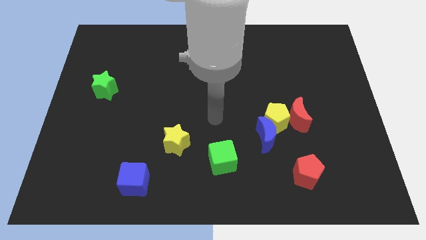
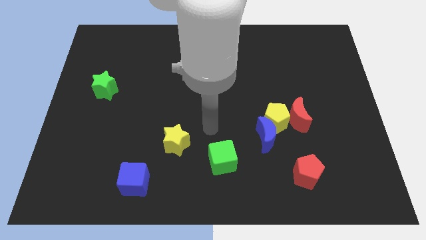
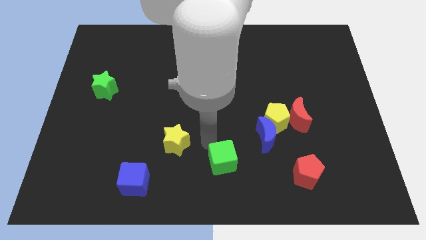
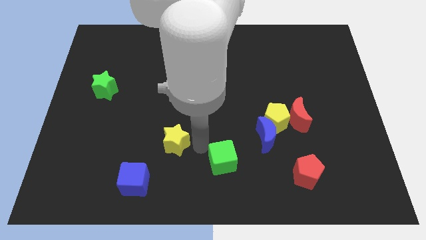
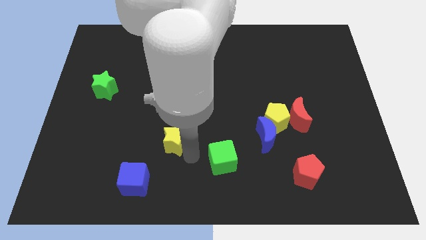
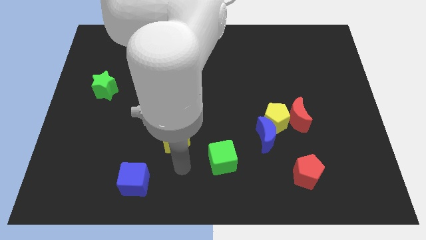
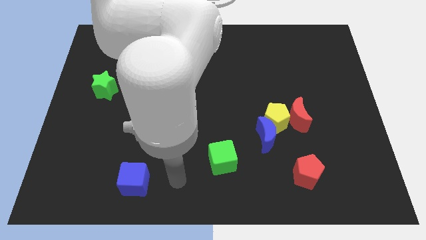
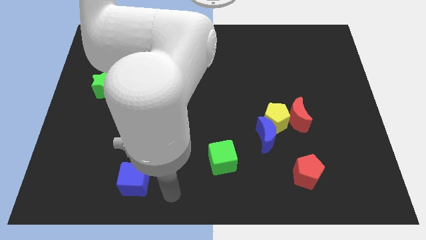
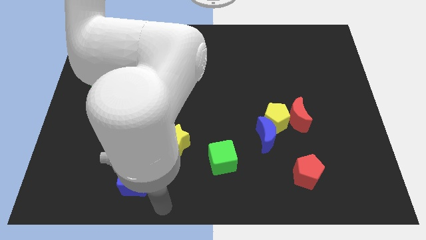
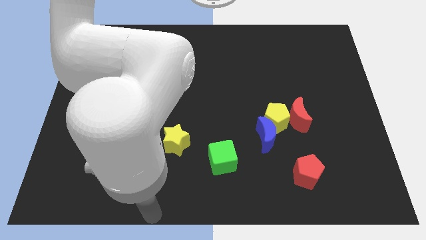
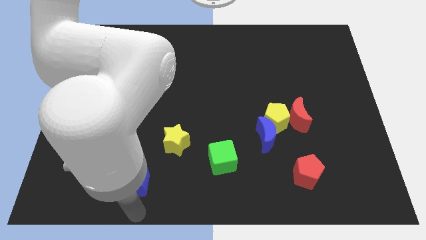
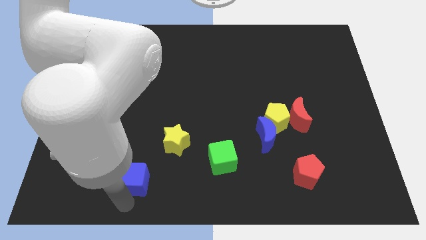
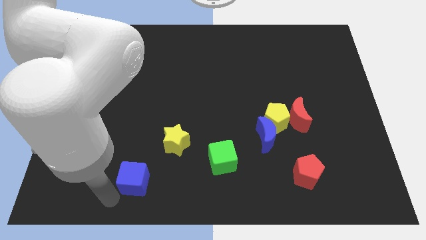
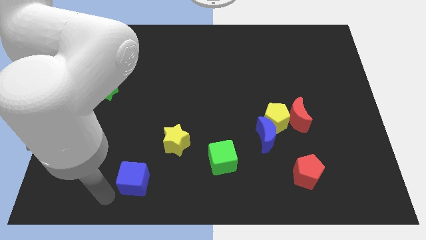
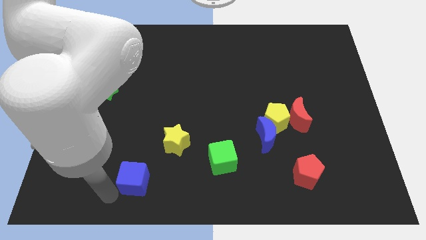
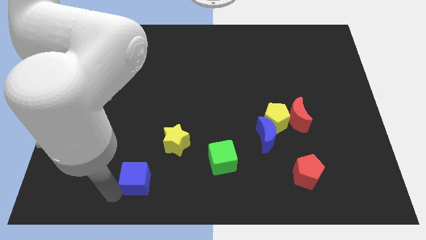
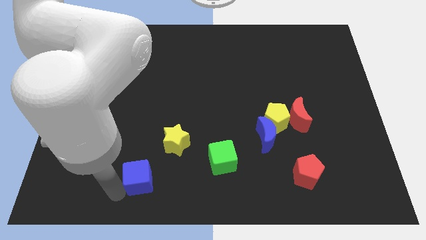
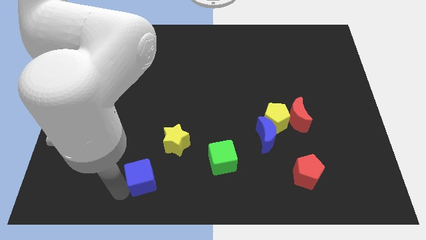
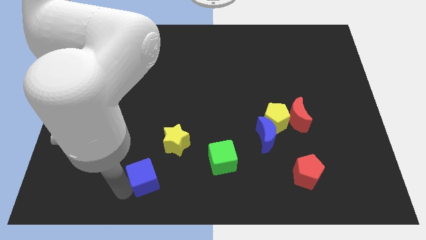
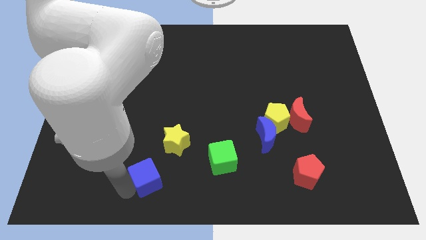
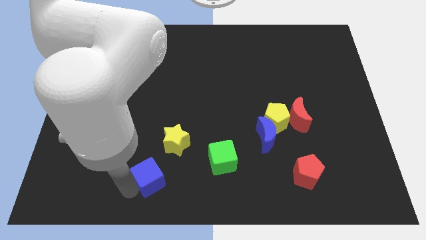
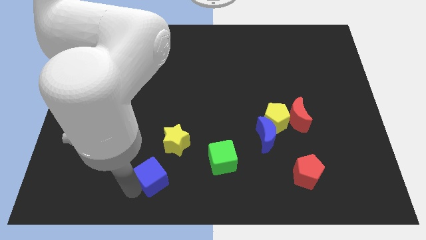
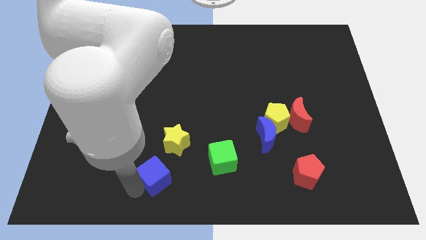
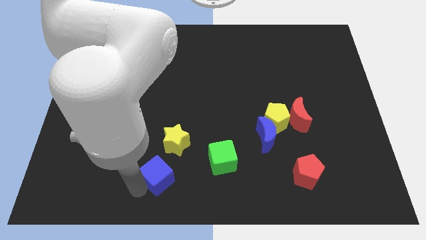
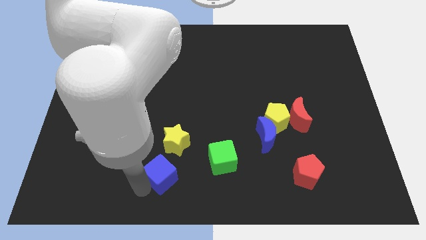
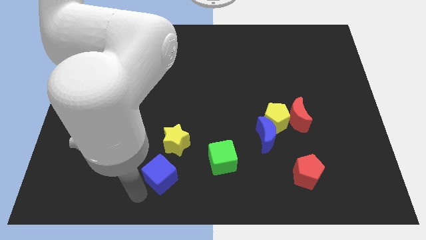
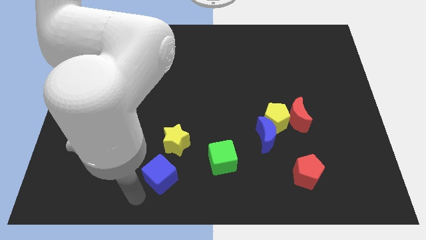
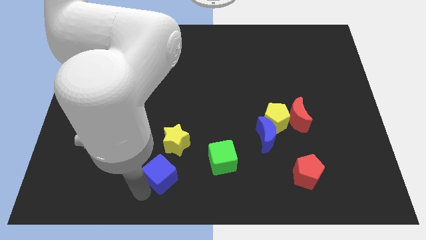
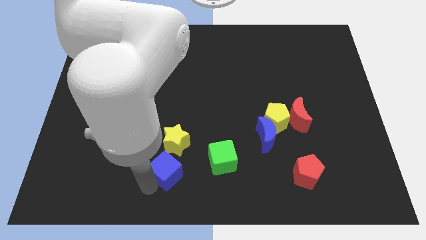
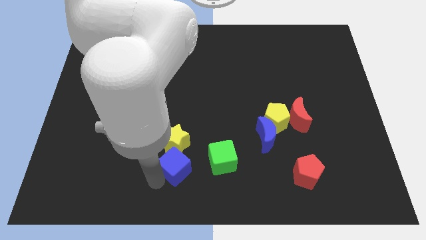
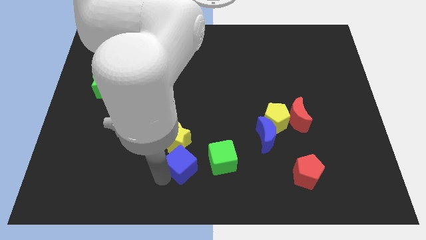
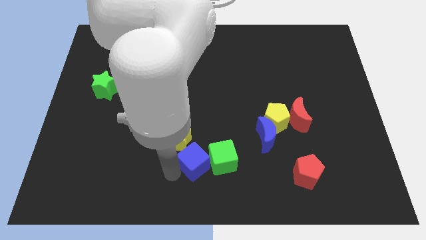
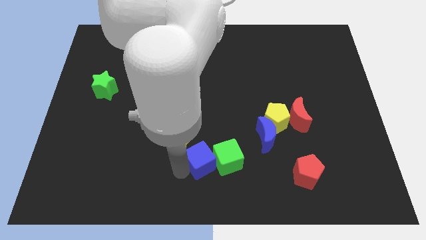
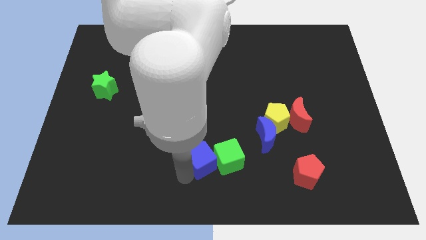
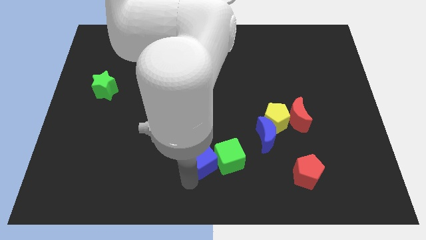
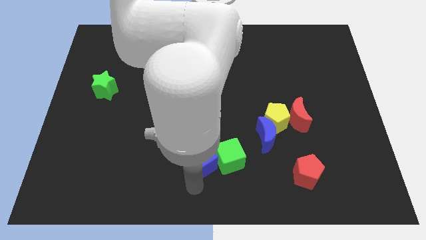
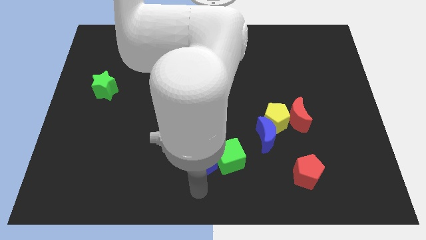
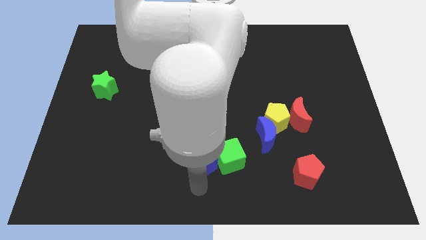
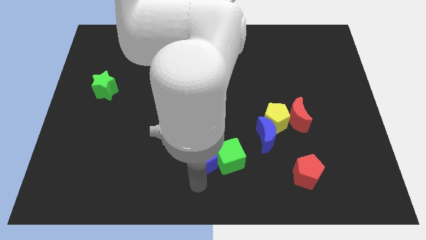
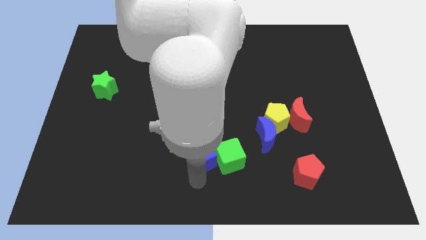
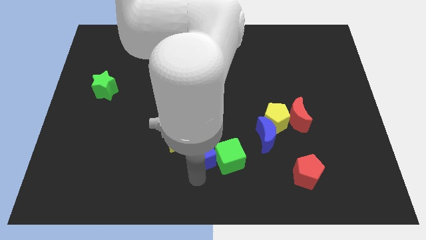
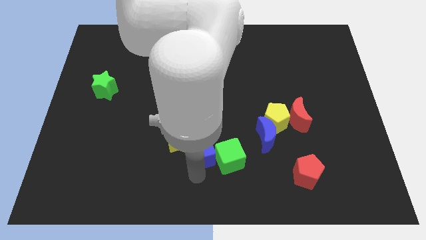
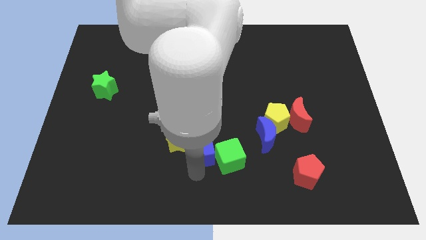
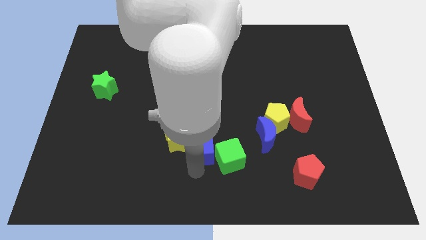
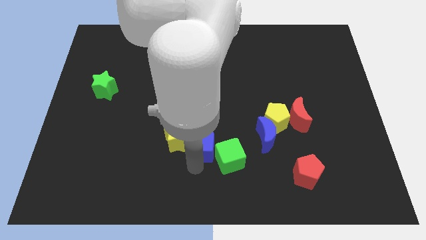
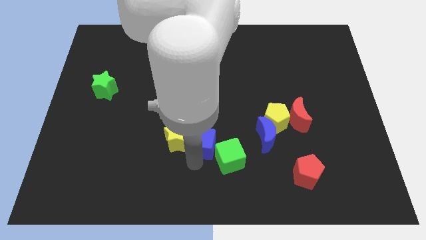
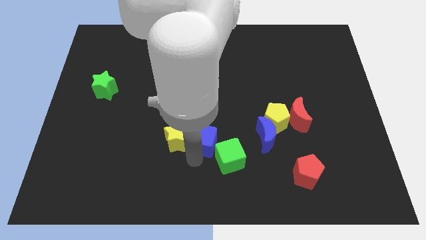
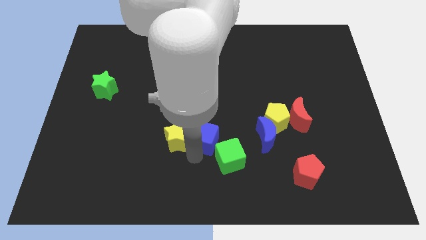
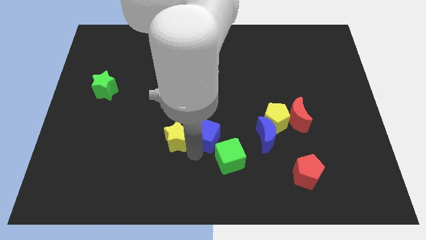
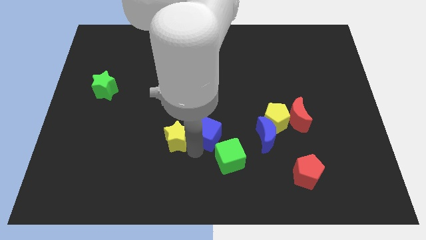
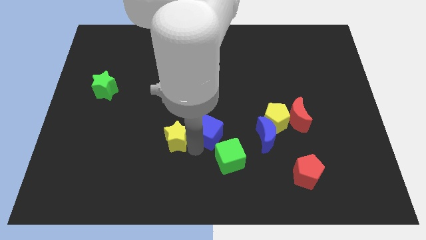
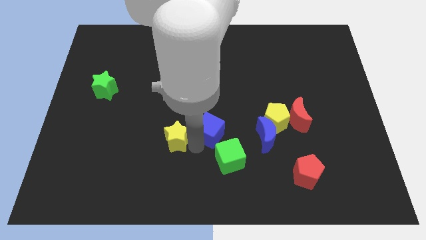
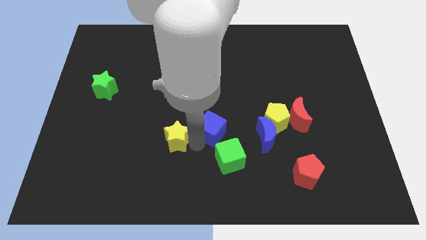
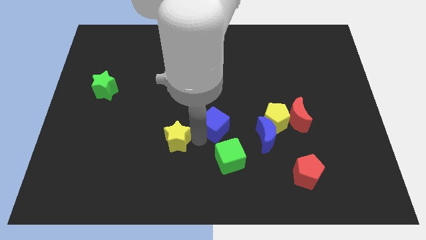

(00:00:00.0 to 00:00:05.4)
slide the blue cube upwards and then to the right

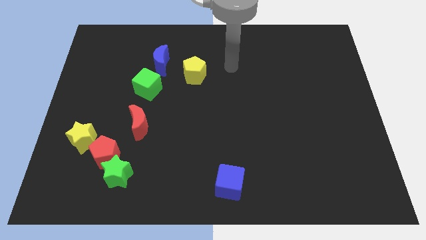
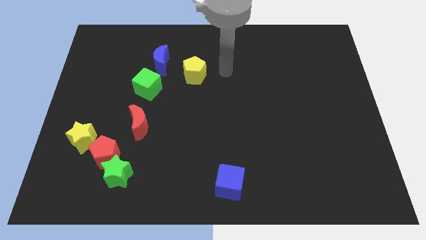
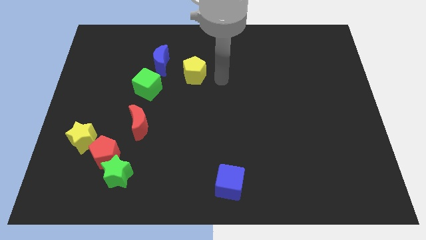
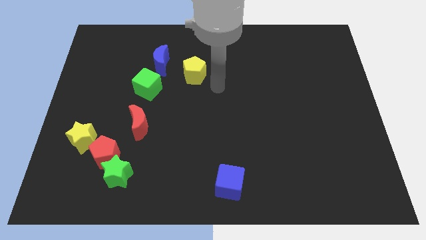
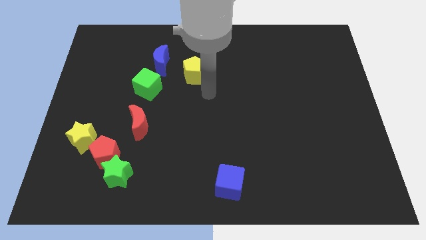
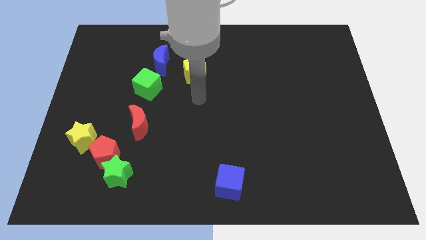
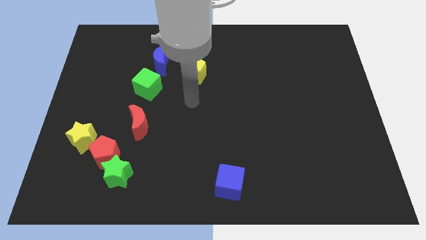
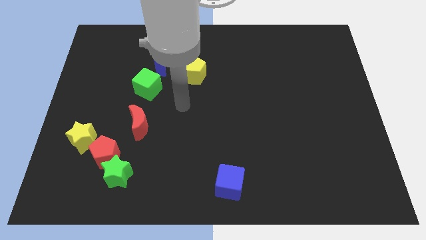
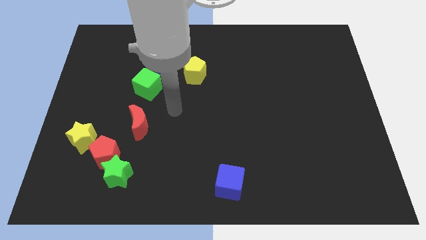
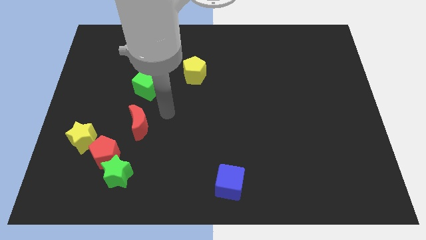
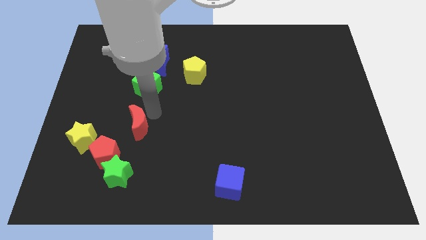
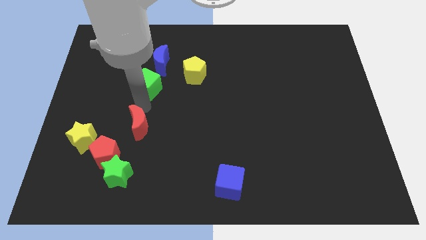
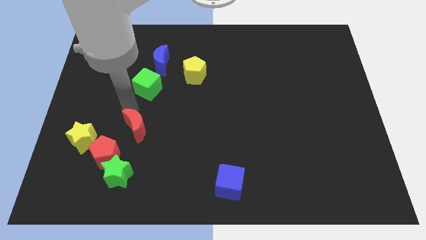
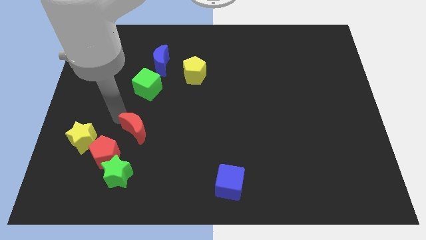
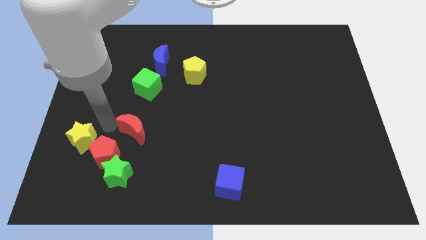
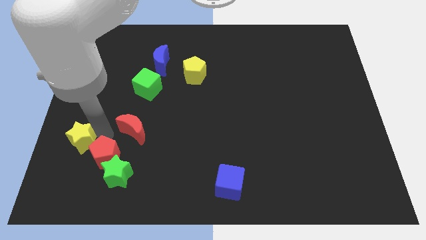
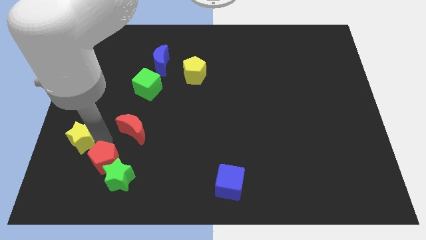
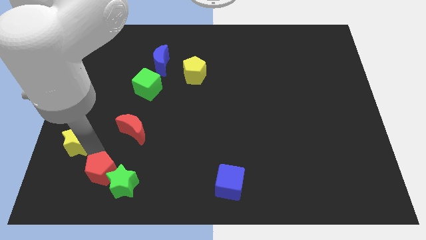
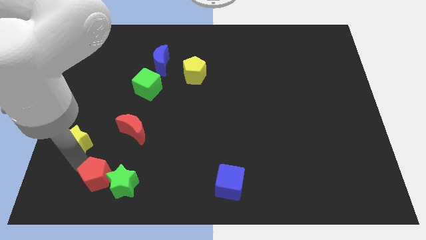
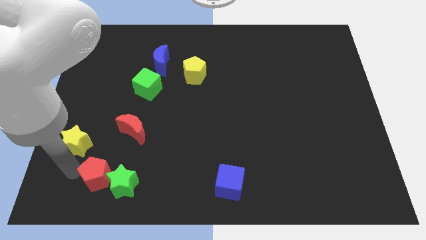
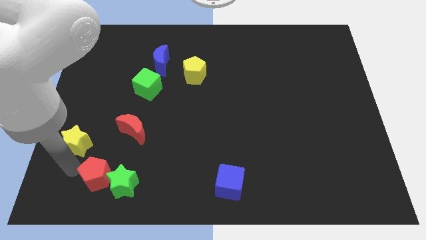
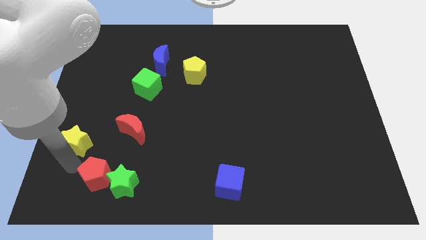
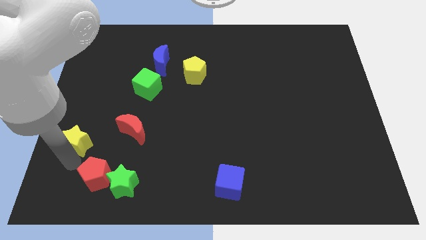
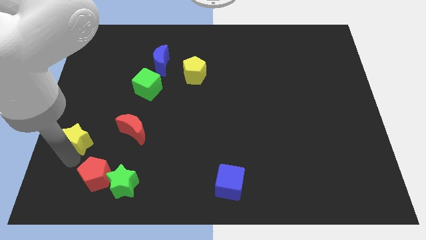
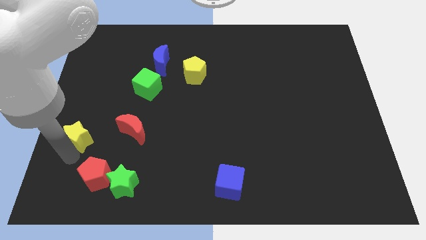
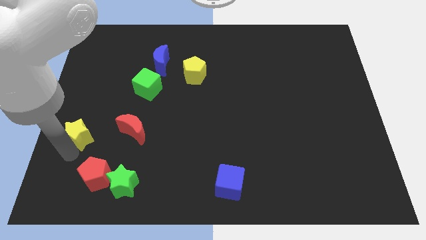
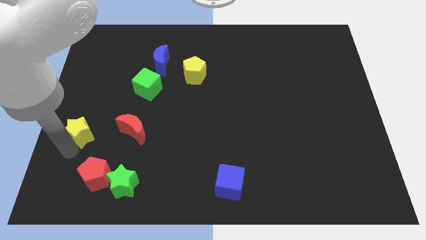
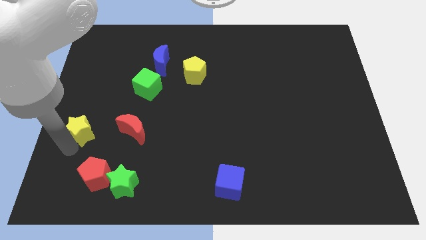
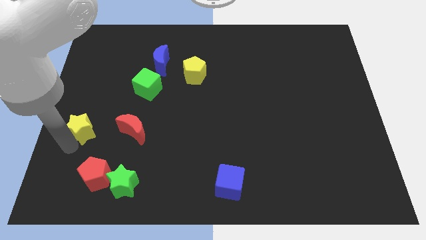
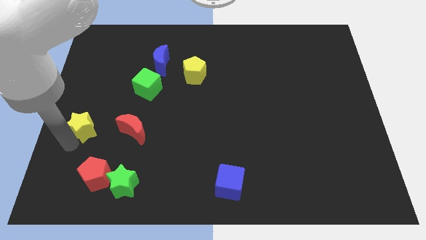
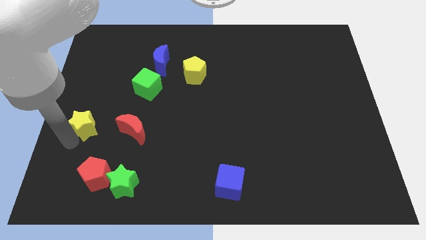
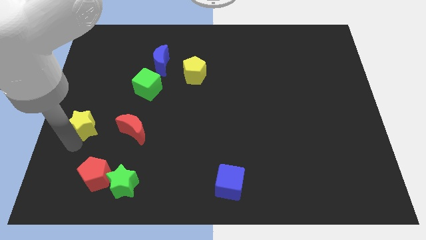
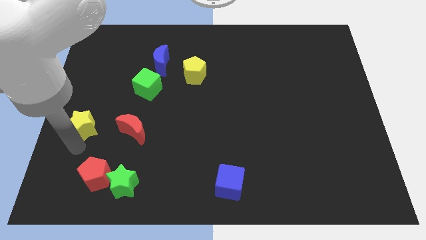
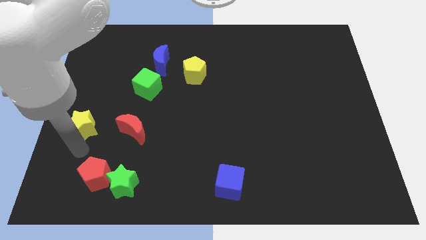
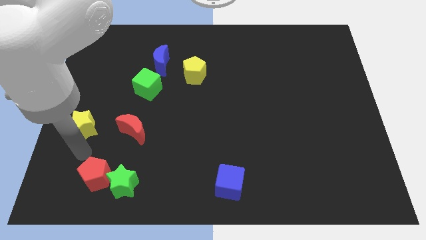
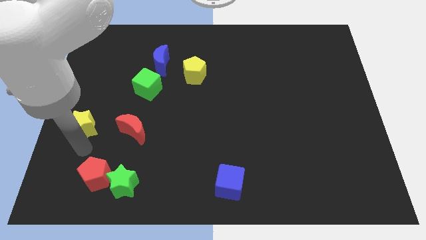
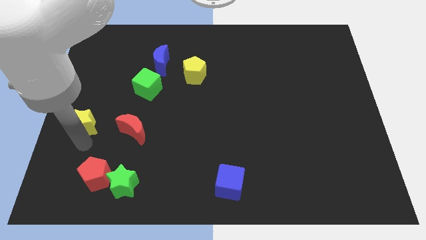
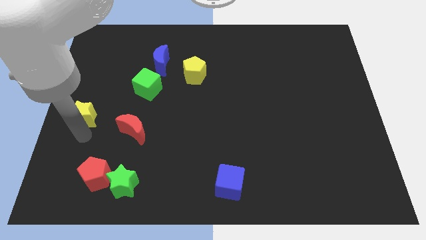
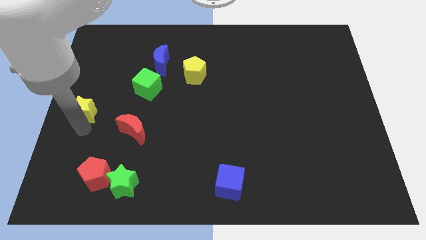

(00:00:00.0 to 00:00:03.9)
slightly move the yellow star upwards
